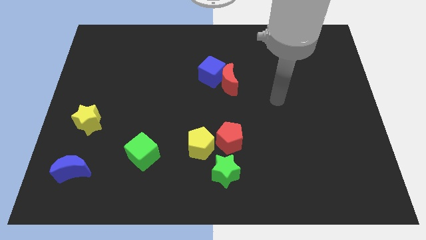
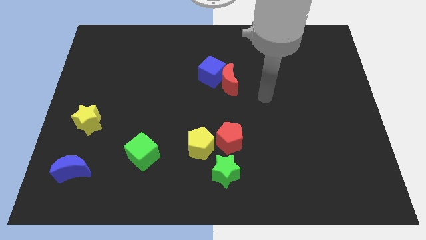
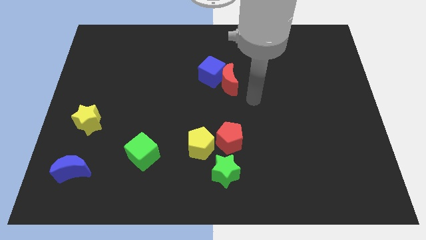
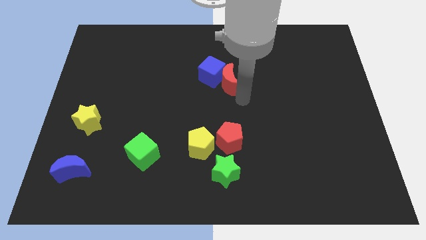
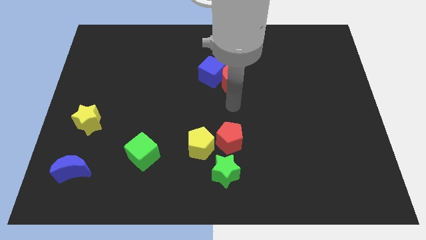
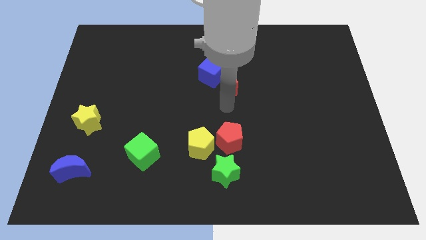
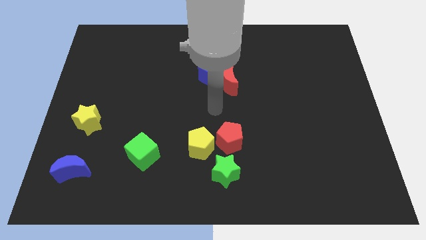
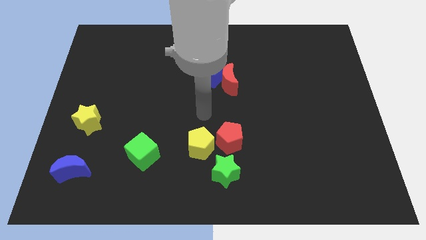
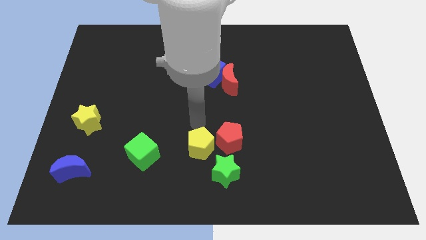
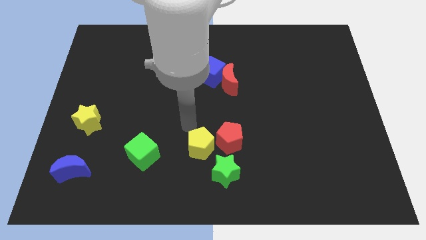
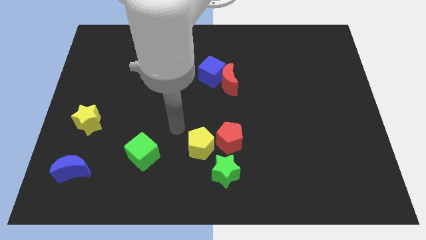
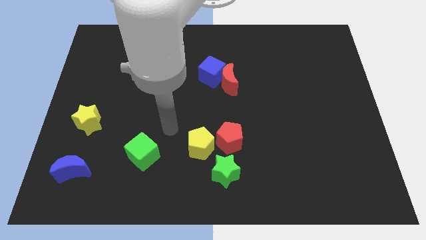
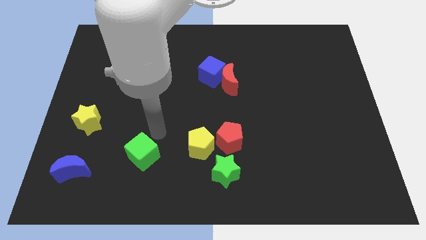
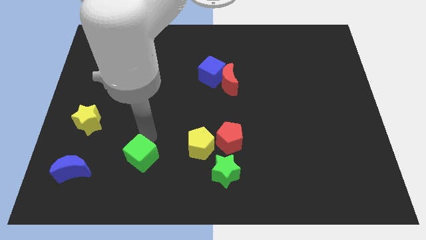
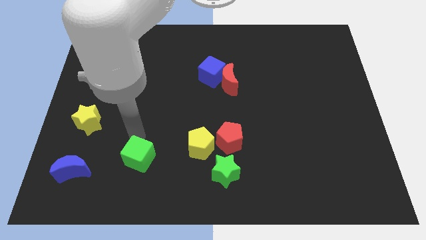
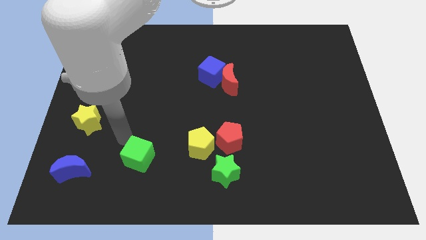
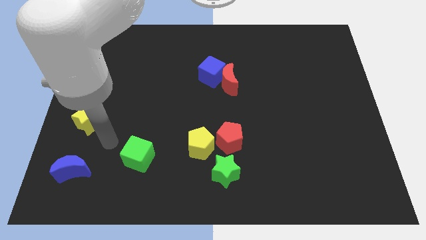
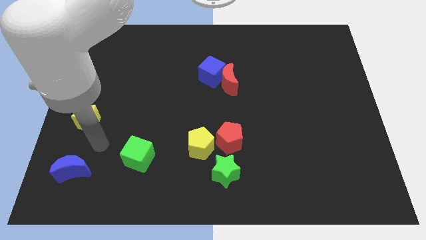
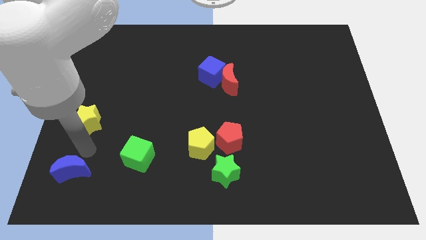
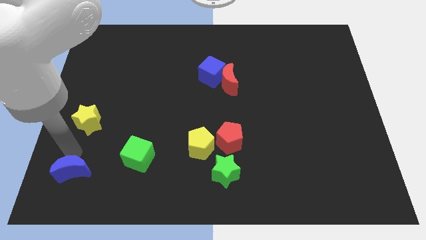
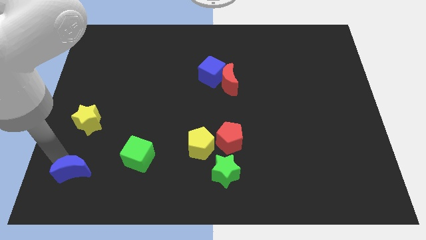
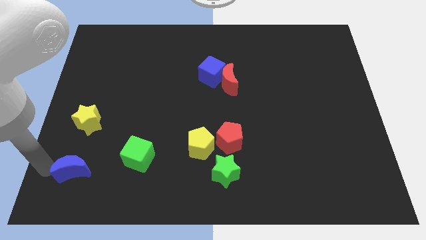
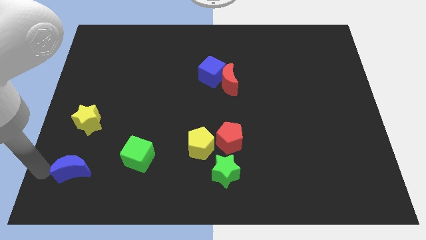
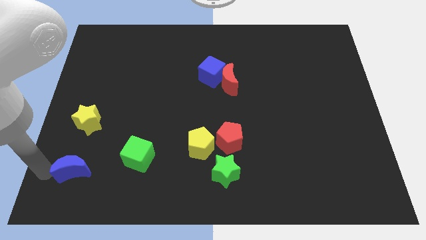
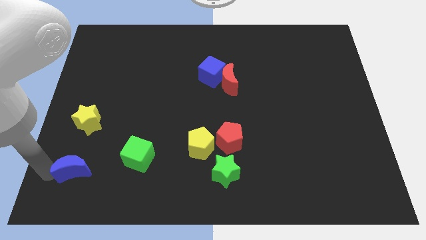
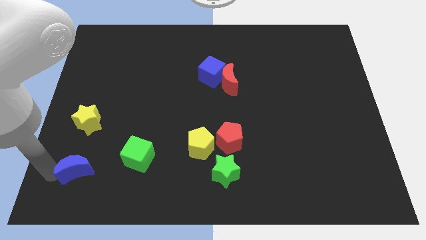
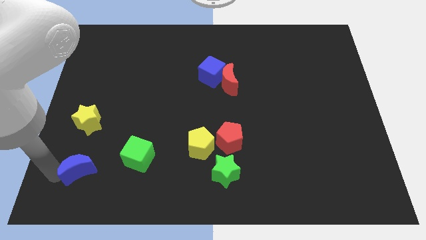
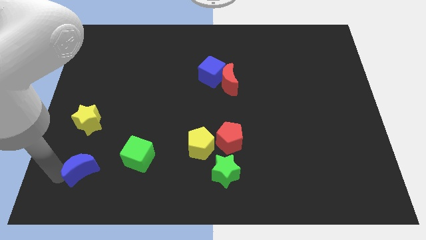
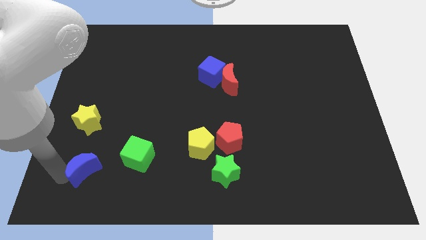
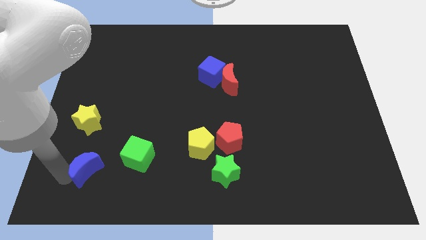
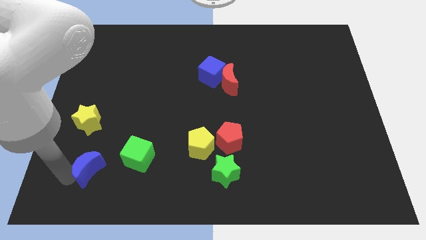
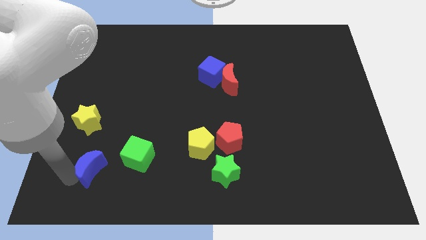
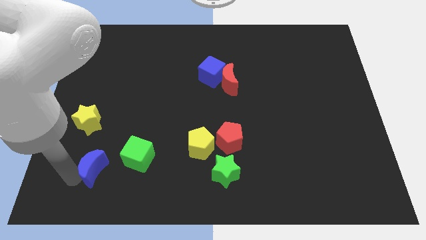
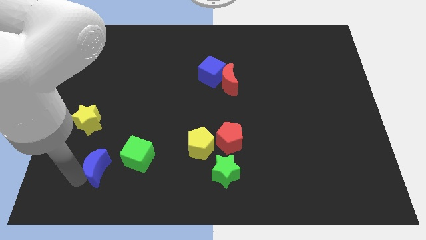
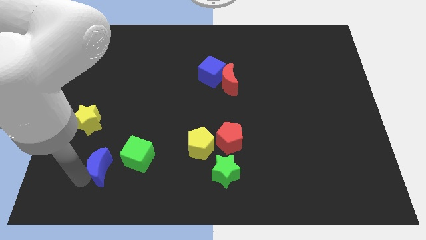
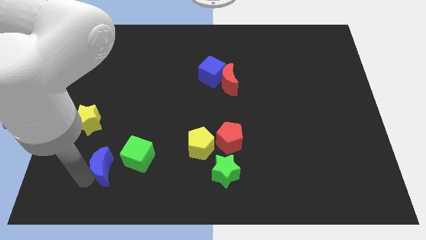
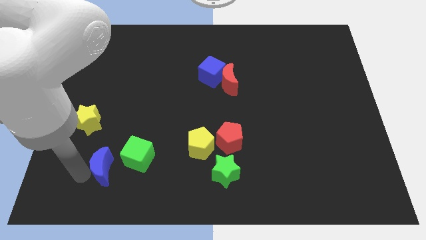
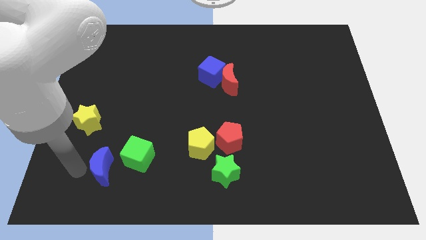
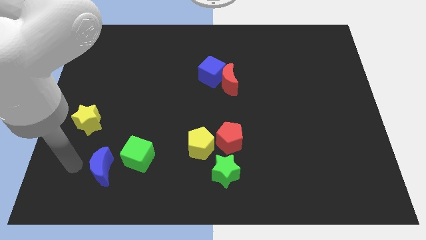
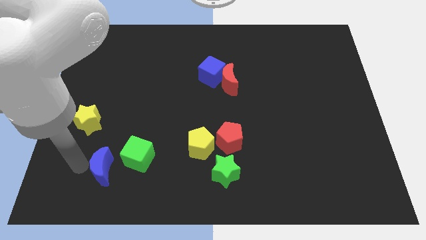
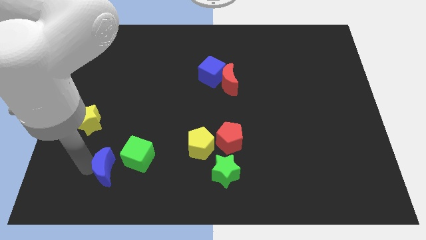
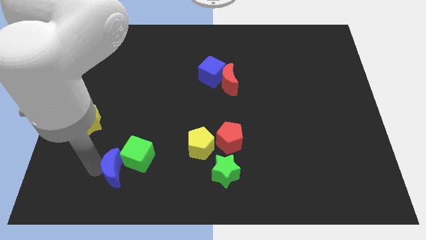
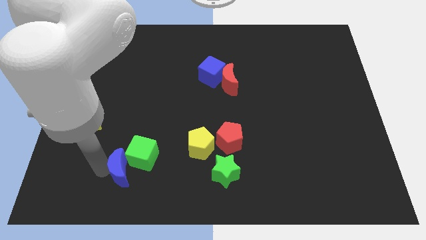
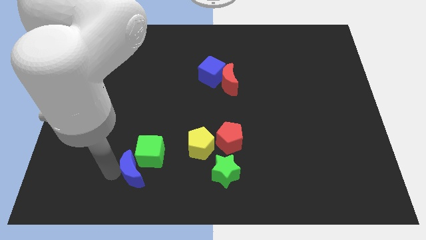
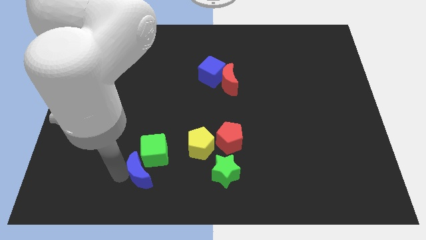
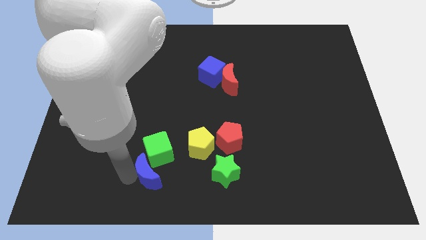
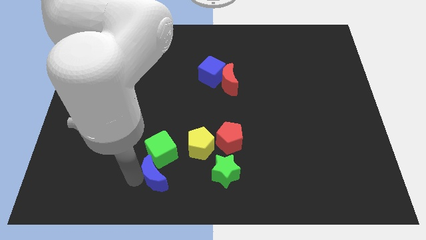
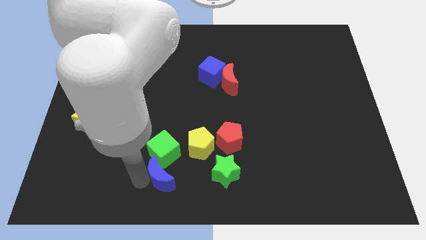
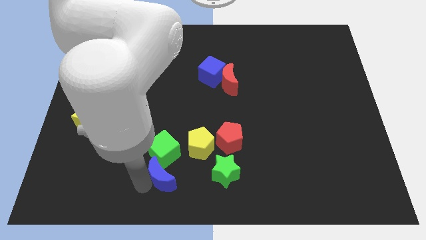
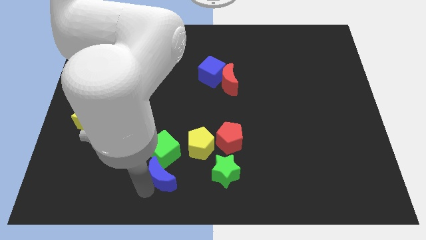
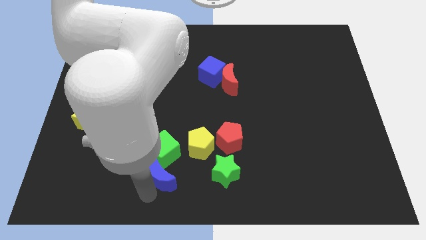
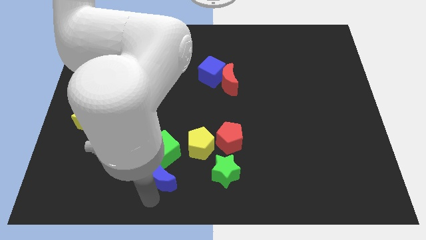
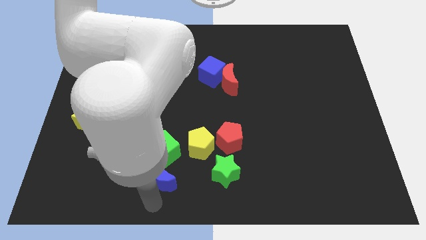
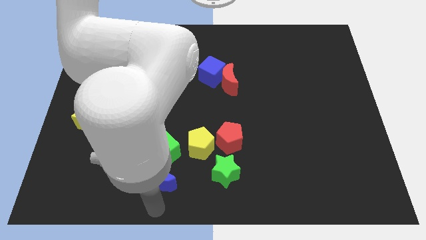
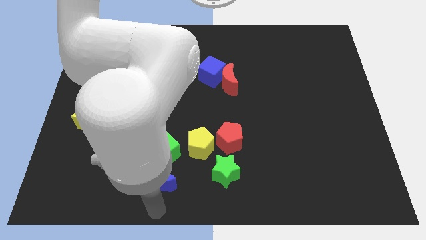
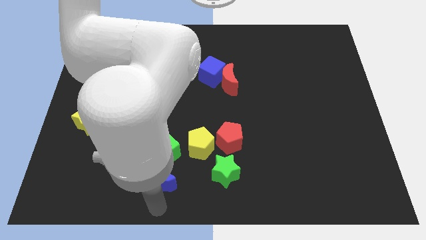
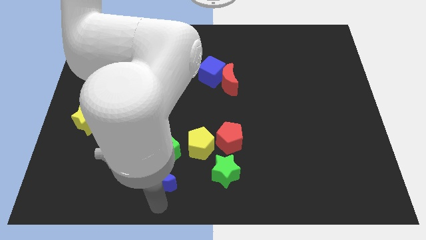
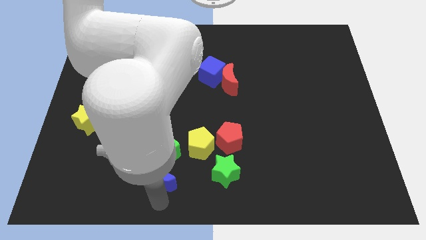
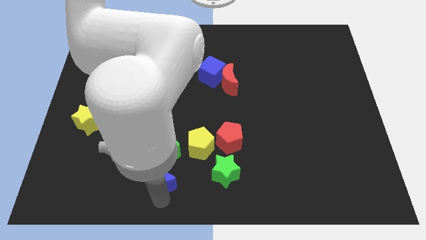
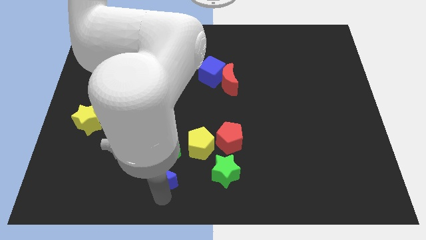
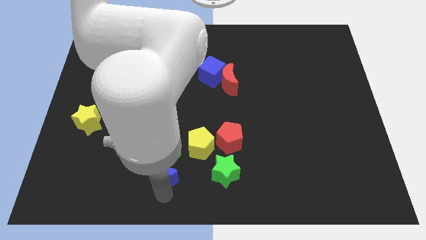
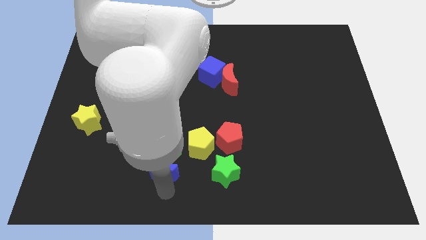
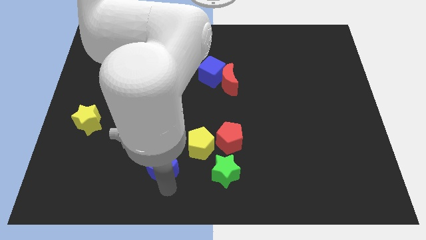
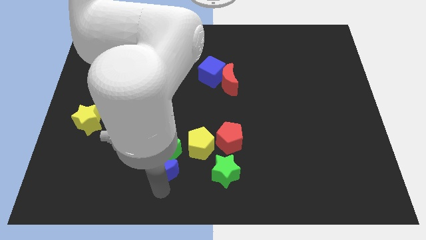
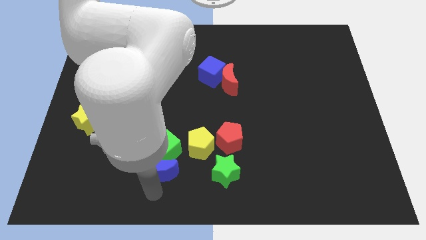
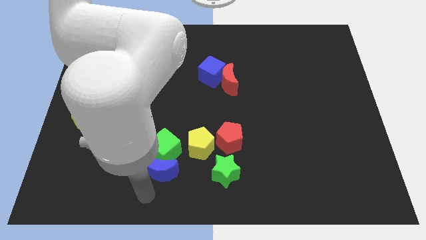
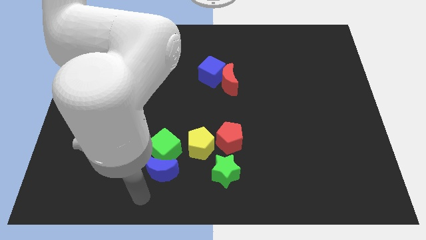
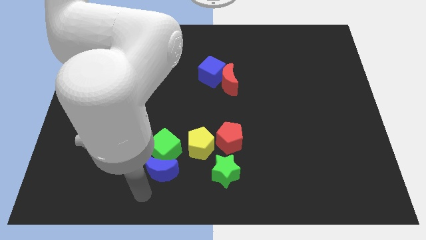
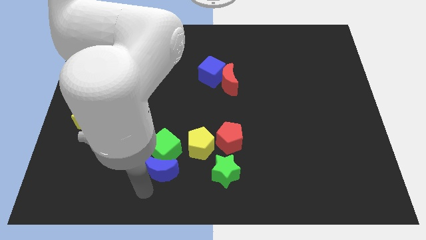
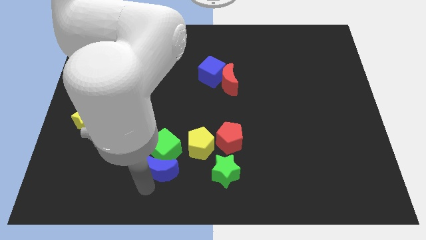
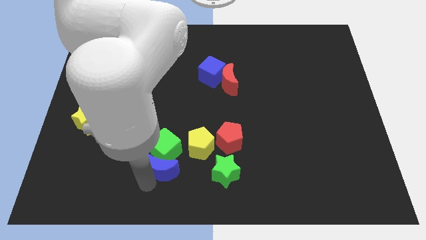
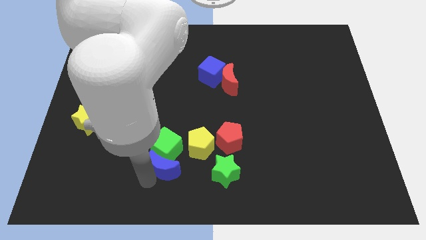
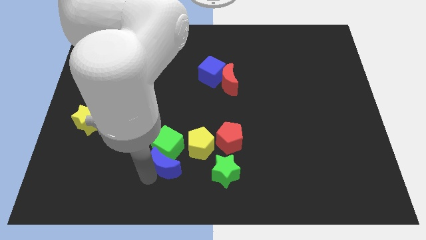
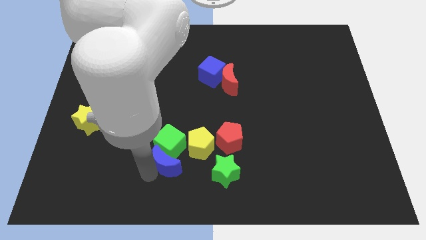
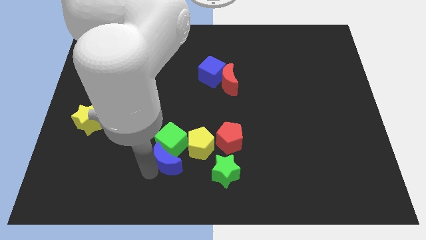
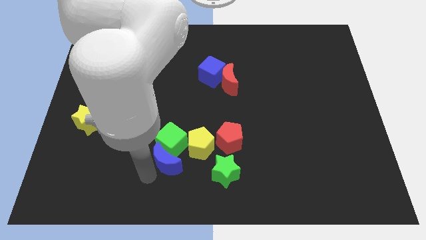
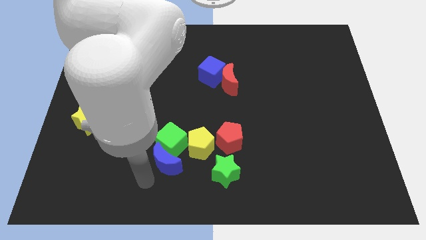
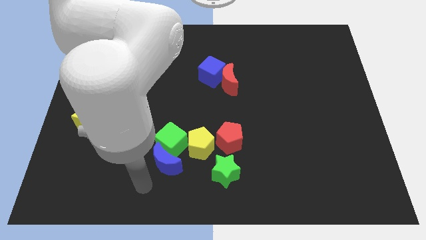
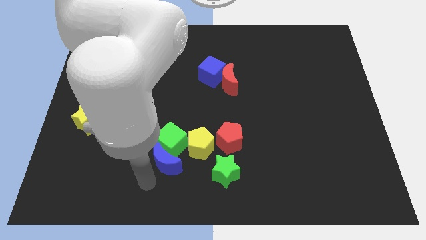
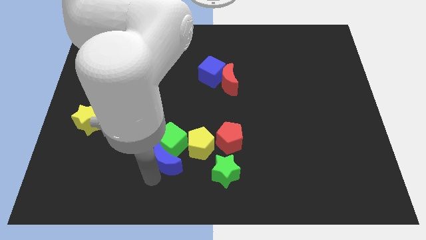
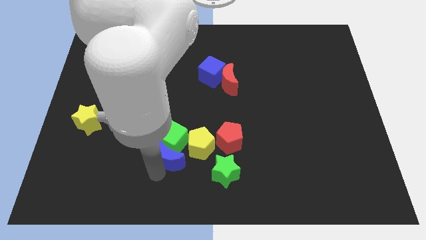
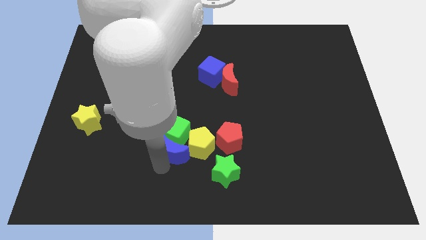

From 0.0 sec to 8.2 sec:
put the blue moon close to the yellow pentagon
